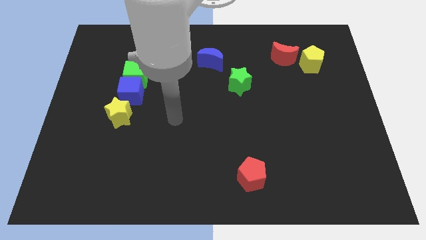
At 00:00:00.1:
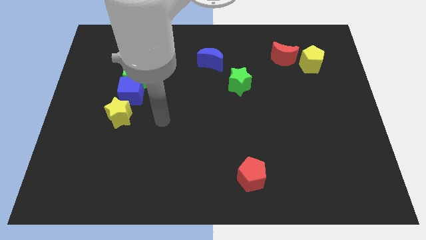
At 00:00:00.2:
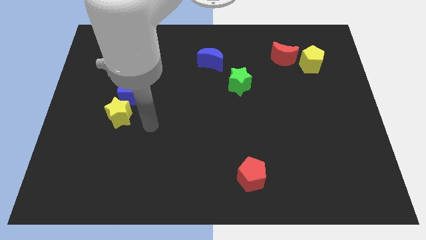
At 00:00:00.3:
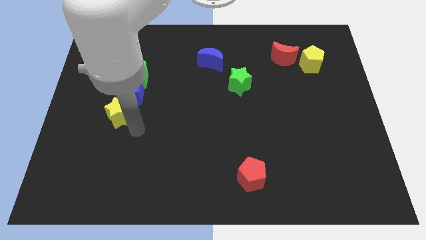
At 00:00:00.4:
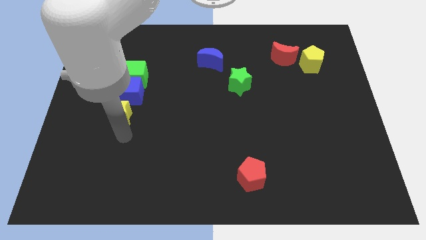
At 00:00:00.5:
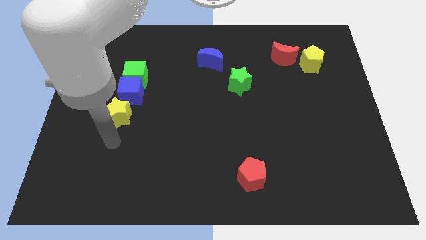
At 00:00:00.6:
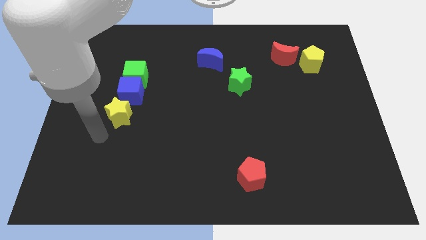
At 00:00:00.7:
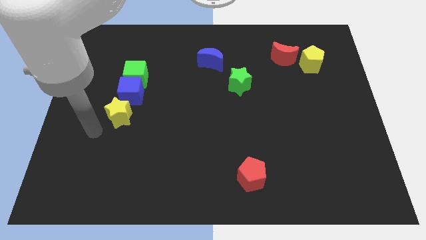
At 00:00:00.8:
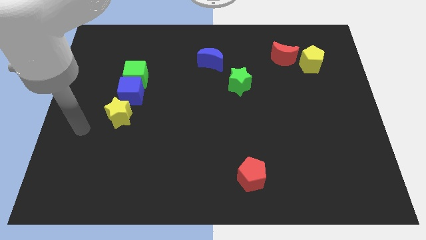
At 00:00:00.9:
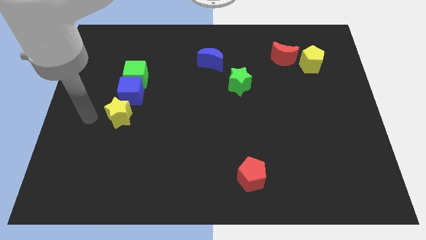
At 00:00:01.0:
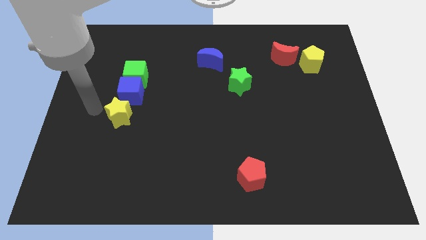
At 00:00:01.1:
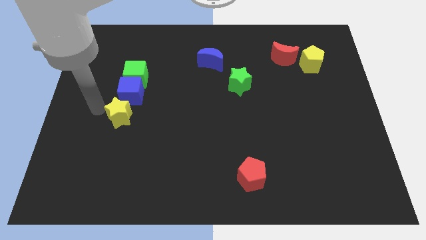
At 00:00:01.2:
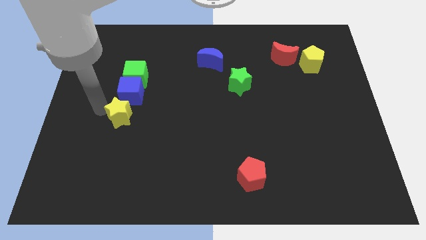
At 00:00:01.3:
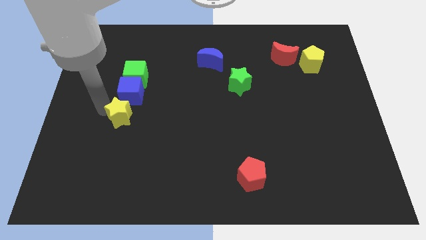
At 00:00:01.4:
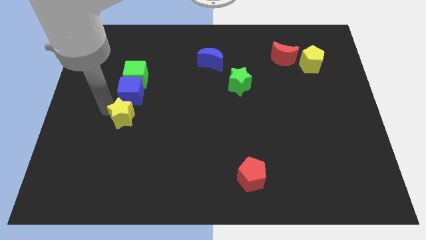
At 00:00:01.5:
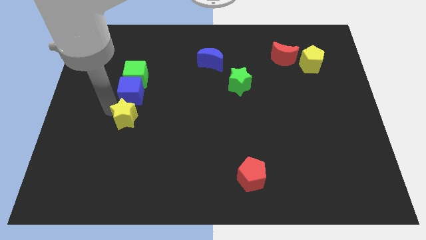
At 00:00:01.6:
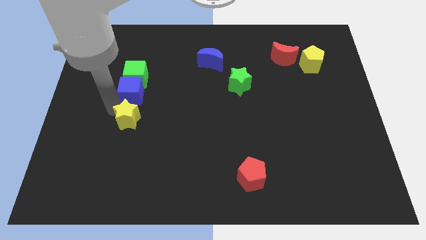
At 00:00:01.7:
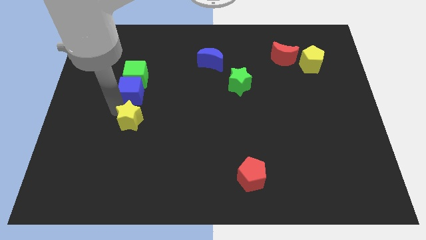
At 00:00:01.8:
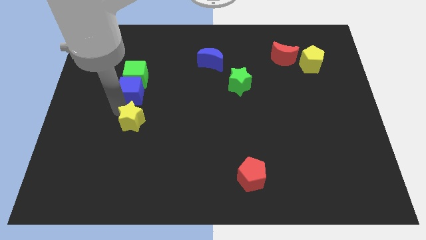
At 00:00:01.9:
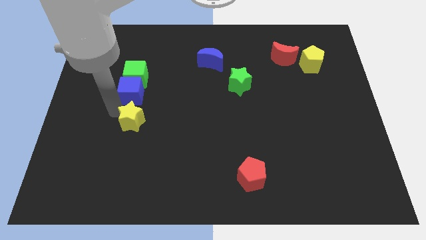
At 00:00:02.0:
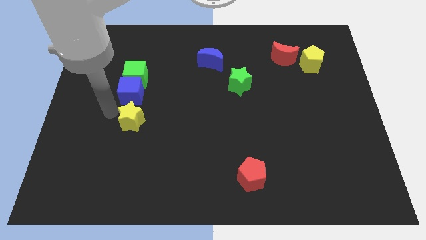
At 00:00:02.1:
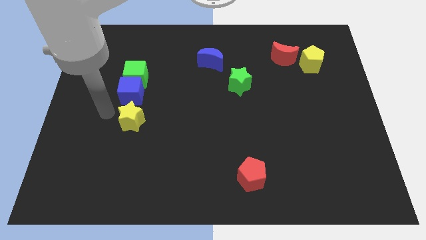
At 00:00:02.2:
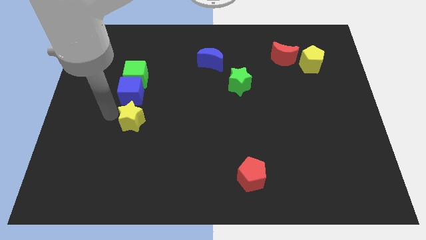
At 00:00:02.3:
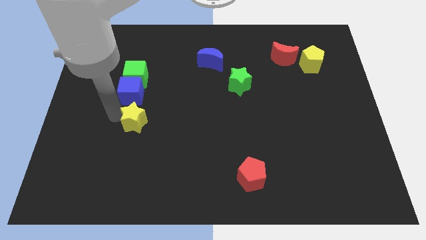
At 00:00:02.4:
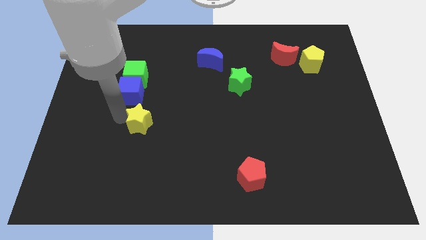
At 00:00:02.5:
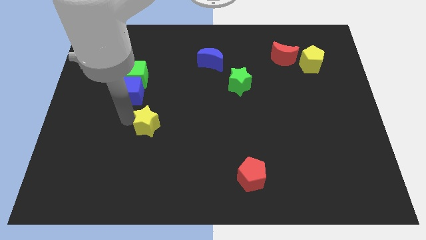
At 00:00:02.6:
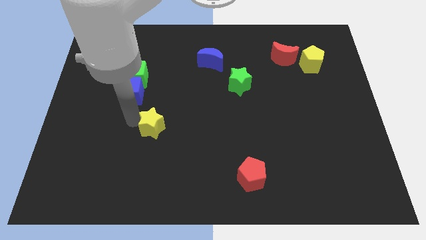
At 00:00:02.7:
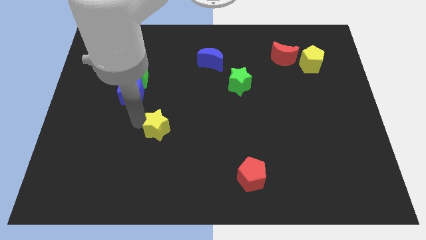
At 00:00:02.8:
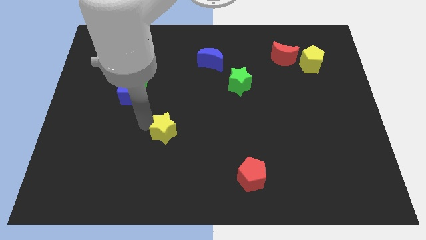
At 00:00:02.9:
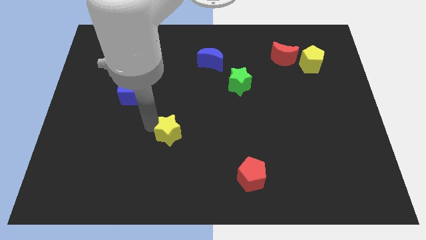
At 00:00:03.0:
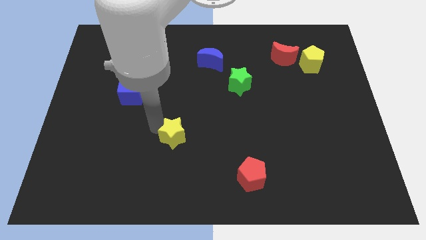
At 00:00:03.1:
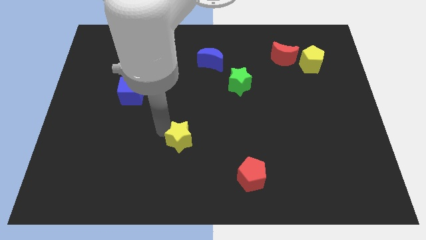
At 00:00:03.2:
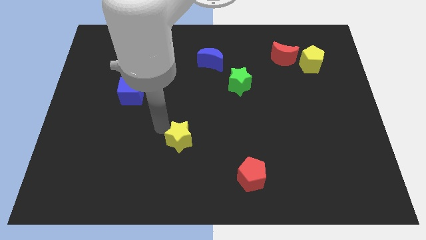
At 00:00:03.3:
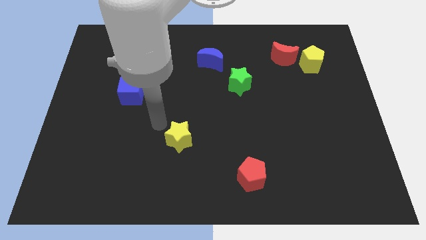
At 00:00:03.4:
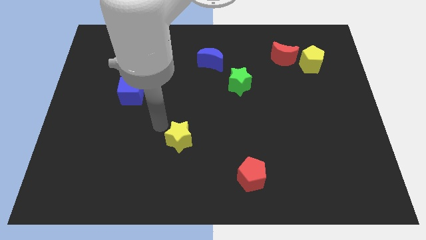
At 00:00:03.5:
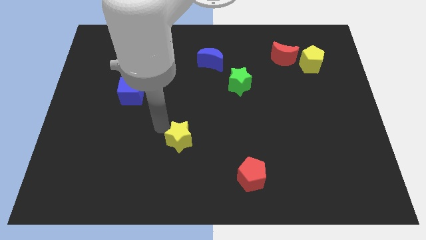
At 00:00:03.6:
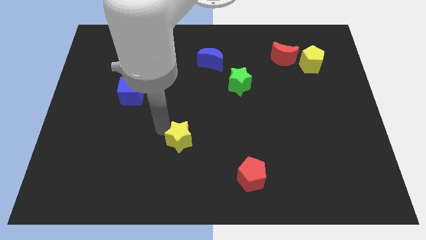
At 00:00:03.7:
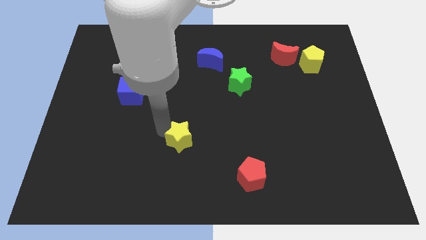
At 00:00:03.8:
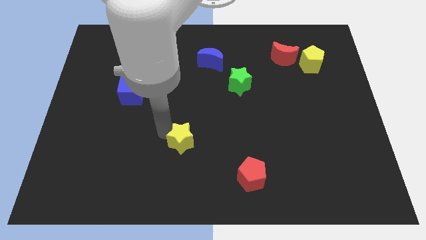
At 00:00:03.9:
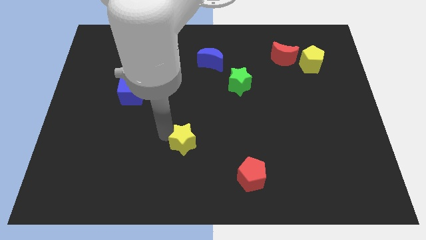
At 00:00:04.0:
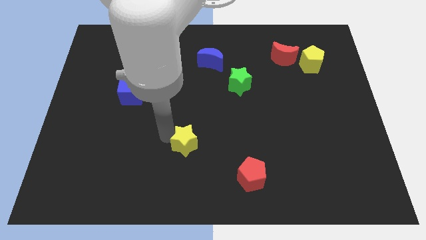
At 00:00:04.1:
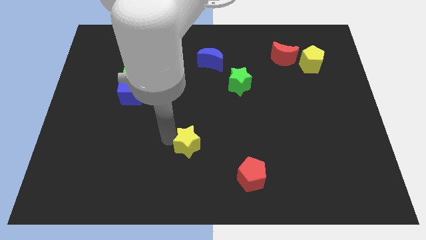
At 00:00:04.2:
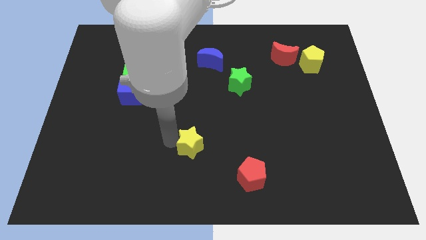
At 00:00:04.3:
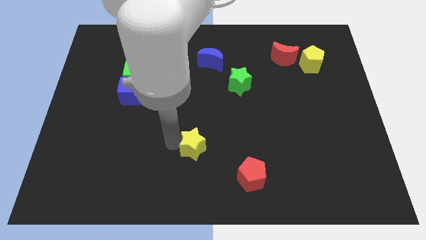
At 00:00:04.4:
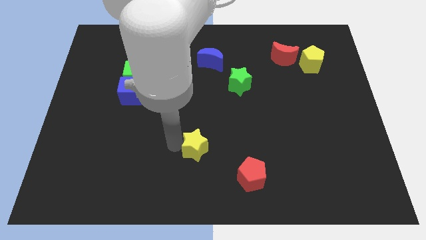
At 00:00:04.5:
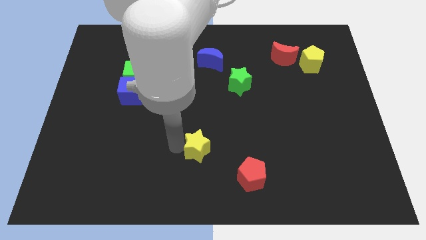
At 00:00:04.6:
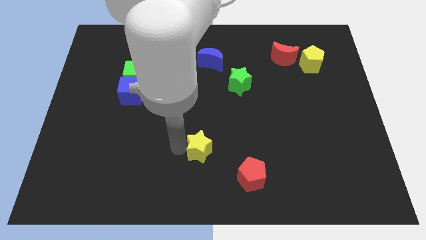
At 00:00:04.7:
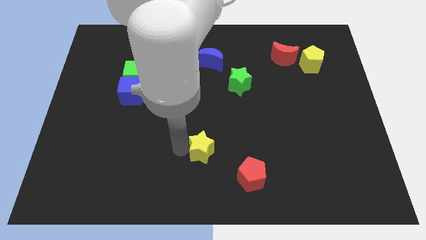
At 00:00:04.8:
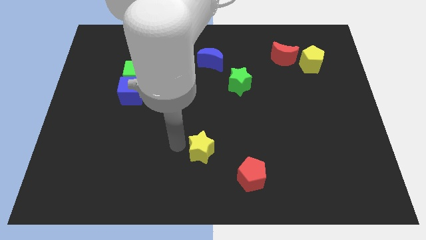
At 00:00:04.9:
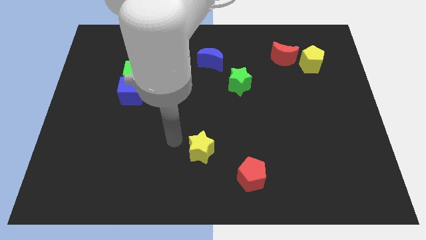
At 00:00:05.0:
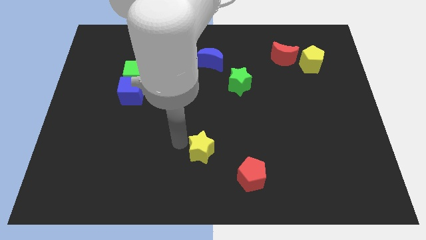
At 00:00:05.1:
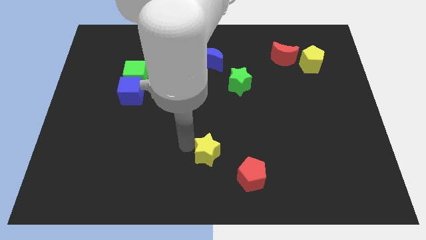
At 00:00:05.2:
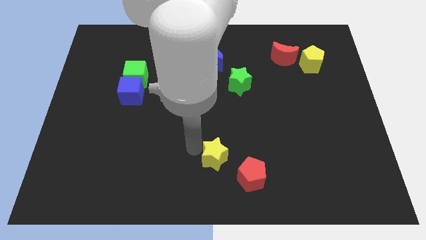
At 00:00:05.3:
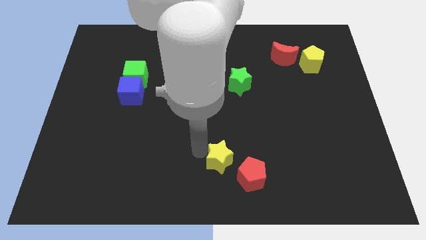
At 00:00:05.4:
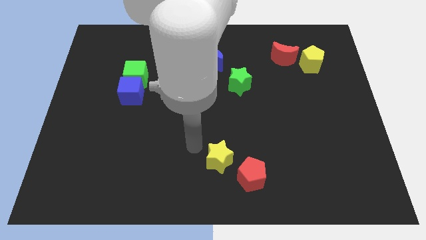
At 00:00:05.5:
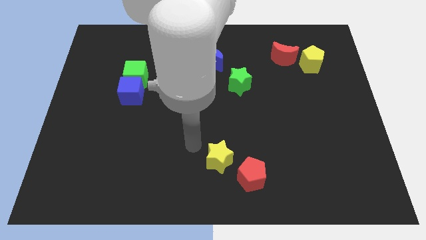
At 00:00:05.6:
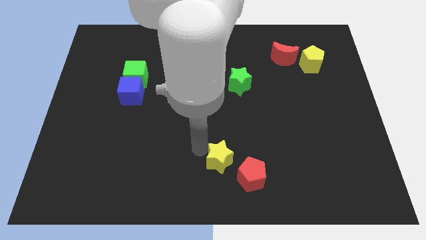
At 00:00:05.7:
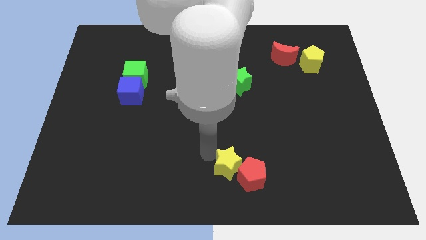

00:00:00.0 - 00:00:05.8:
put the yellow star next to the red pentagon

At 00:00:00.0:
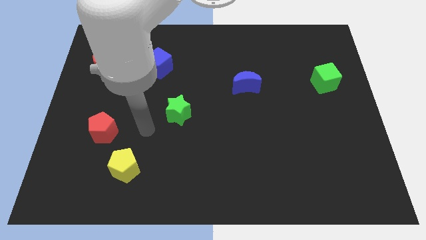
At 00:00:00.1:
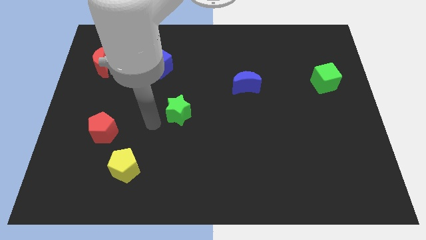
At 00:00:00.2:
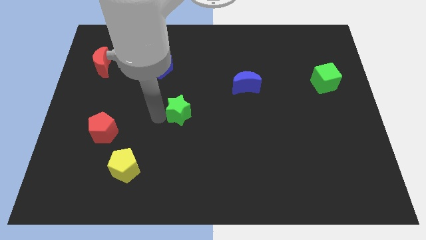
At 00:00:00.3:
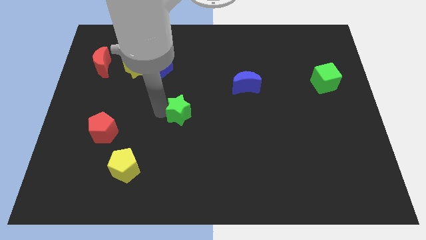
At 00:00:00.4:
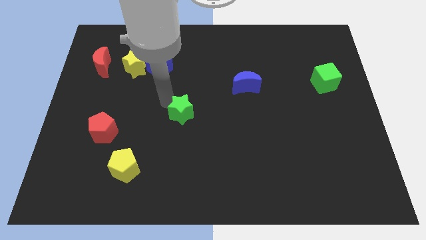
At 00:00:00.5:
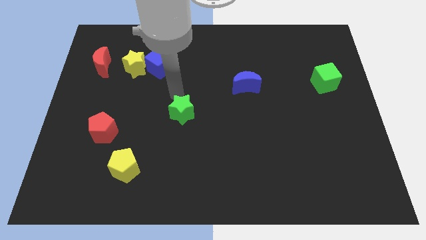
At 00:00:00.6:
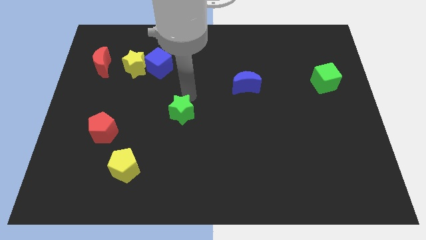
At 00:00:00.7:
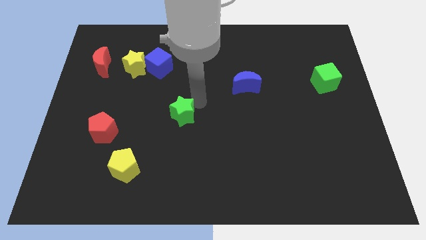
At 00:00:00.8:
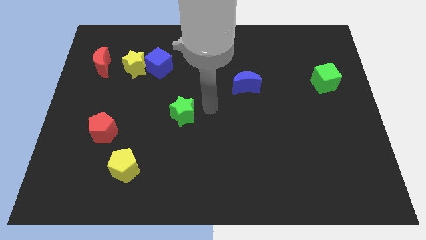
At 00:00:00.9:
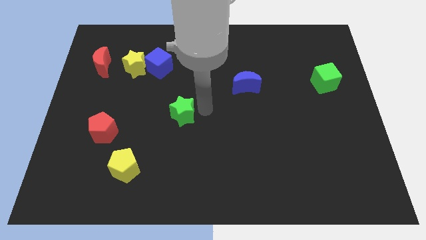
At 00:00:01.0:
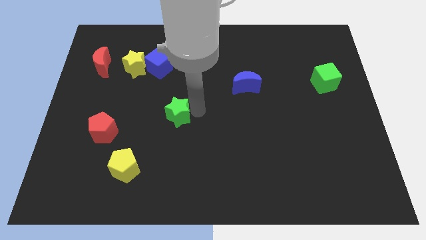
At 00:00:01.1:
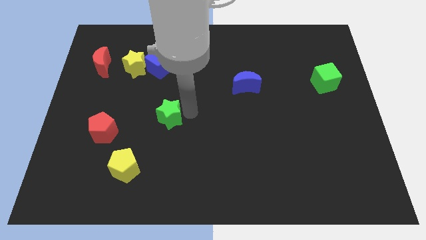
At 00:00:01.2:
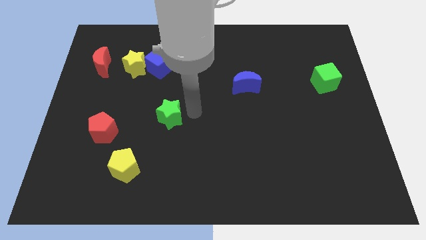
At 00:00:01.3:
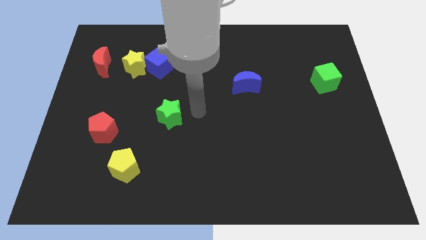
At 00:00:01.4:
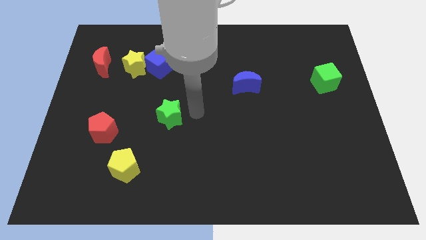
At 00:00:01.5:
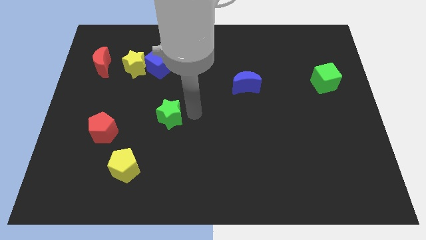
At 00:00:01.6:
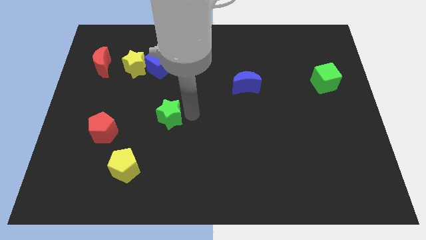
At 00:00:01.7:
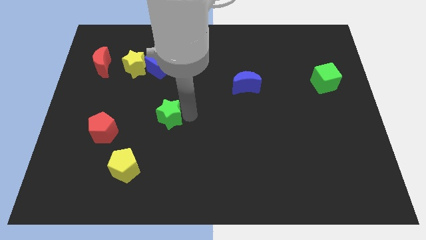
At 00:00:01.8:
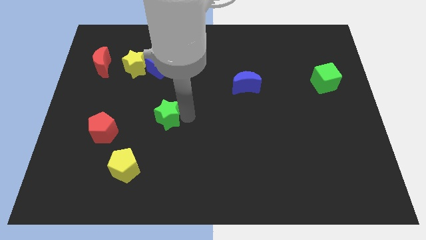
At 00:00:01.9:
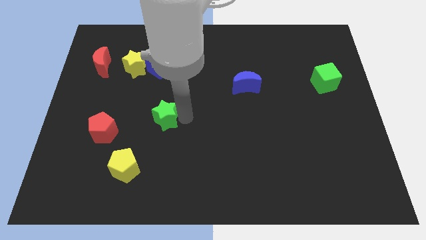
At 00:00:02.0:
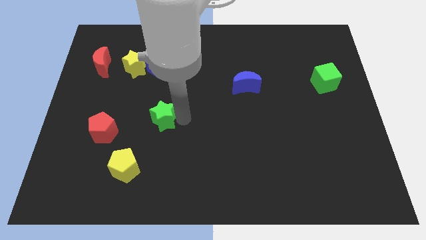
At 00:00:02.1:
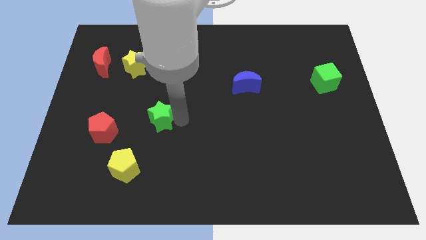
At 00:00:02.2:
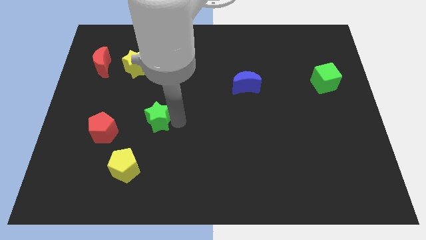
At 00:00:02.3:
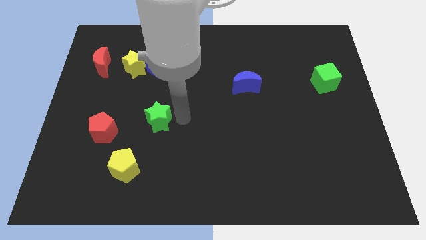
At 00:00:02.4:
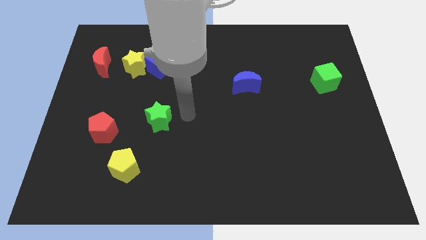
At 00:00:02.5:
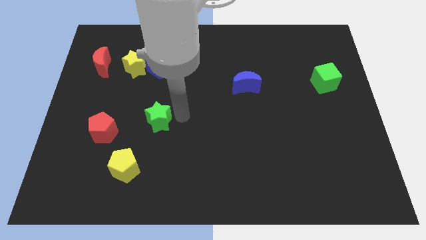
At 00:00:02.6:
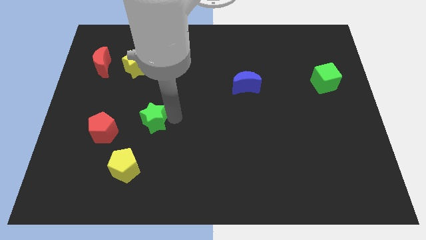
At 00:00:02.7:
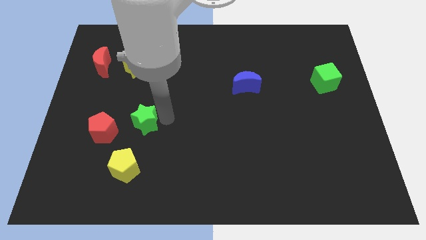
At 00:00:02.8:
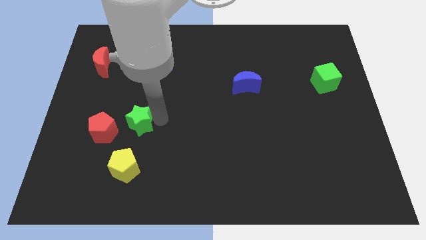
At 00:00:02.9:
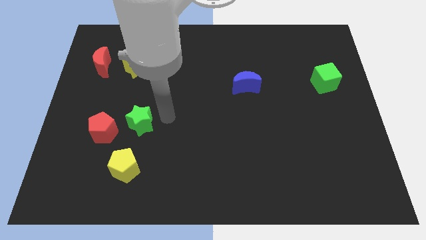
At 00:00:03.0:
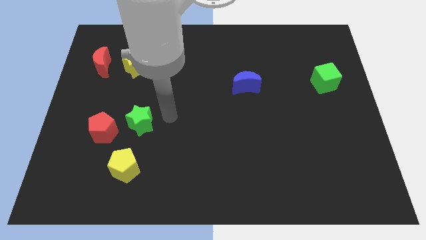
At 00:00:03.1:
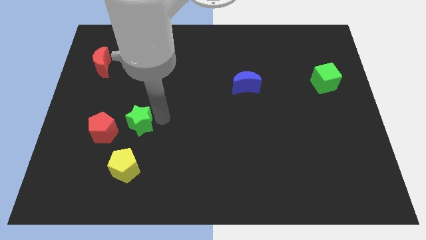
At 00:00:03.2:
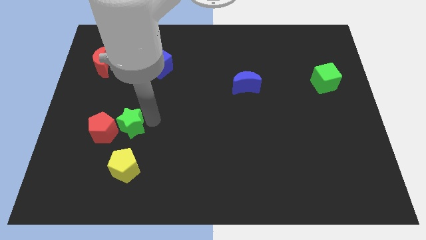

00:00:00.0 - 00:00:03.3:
push the green star next to the red pentagon
